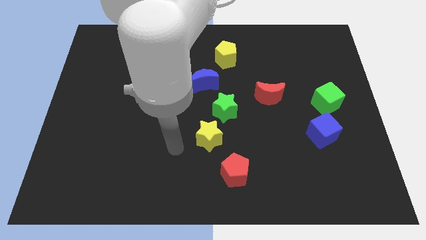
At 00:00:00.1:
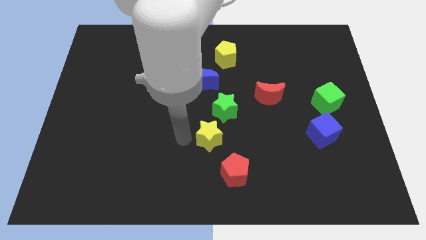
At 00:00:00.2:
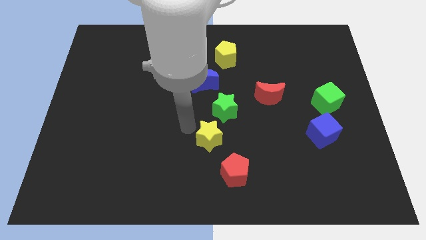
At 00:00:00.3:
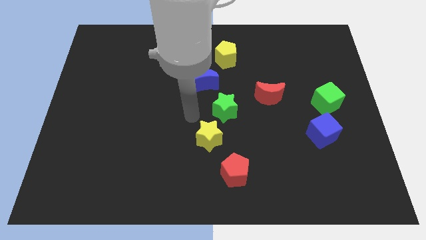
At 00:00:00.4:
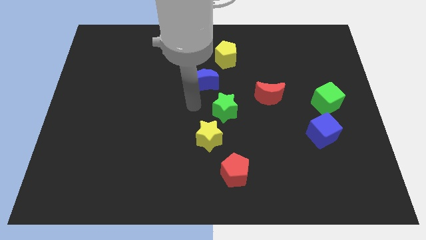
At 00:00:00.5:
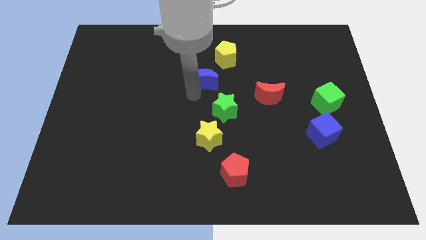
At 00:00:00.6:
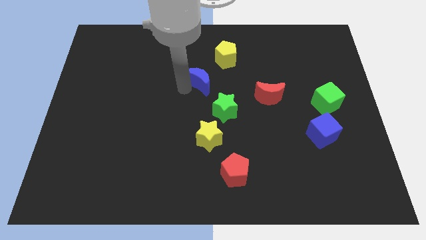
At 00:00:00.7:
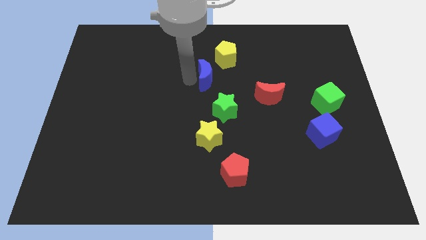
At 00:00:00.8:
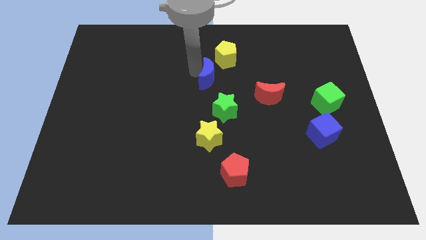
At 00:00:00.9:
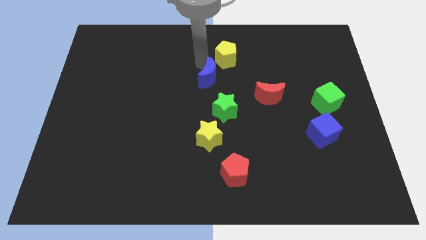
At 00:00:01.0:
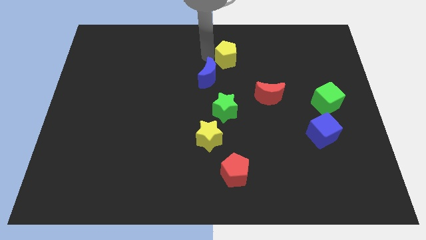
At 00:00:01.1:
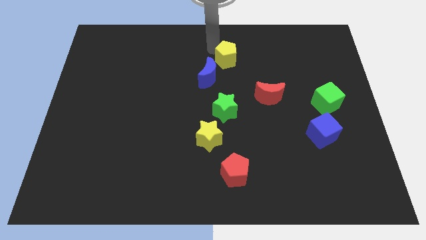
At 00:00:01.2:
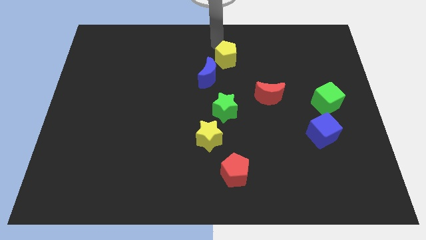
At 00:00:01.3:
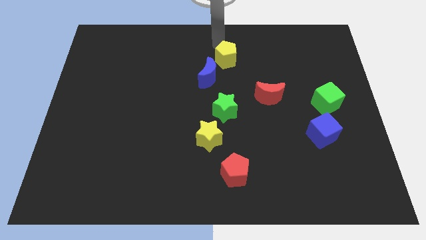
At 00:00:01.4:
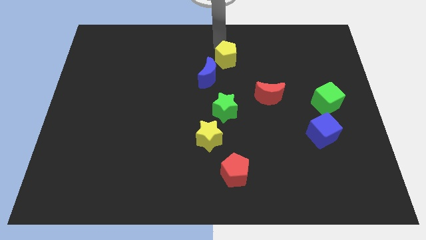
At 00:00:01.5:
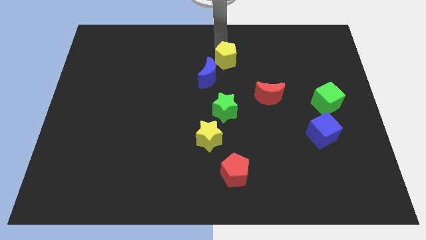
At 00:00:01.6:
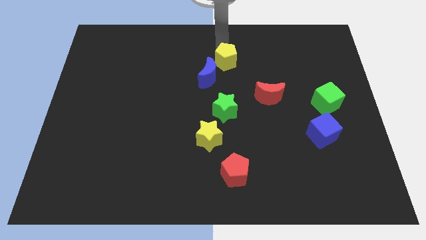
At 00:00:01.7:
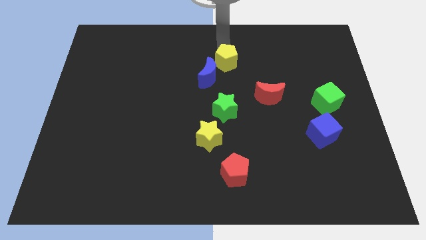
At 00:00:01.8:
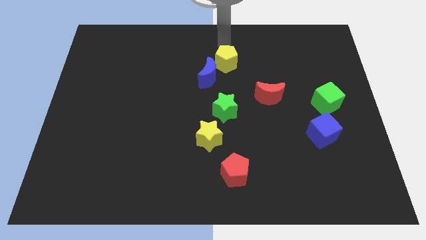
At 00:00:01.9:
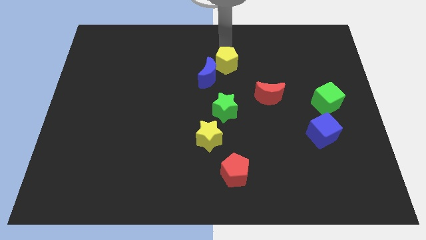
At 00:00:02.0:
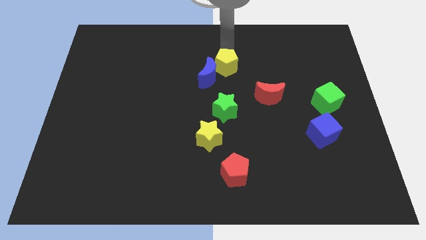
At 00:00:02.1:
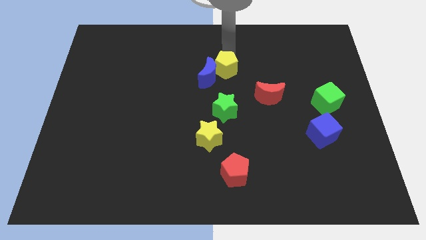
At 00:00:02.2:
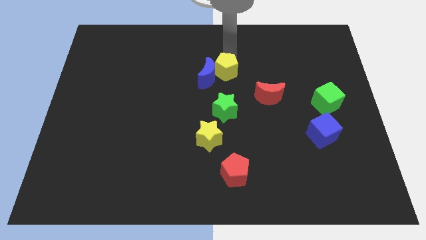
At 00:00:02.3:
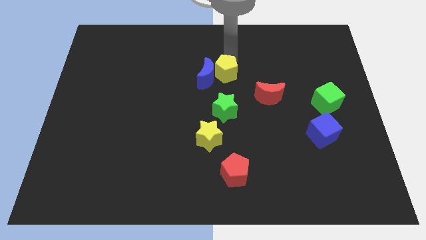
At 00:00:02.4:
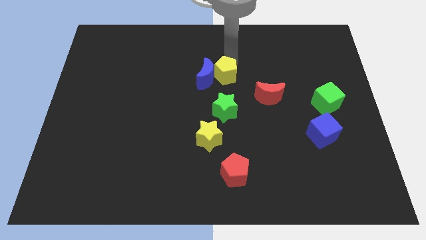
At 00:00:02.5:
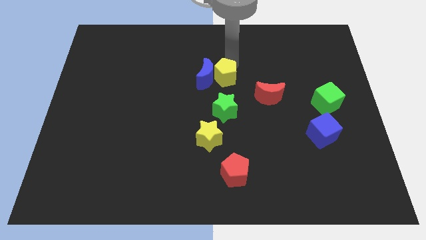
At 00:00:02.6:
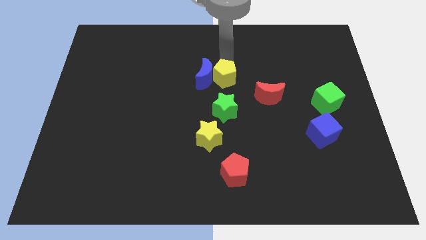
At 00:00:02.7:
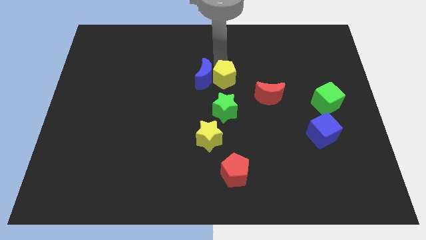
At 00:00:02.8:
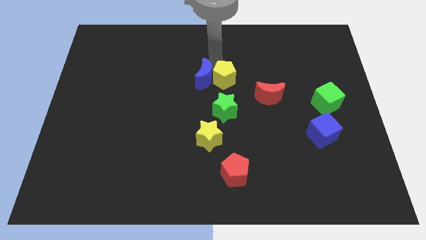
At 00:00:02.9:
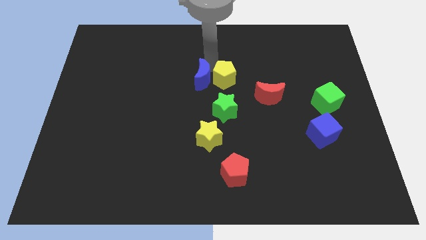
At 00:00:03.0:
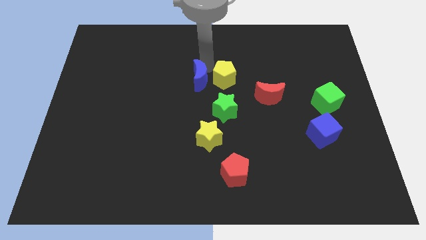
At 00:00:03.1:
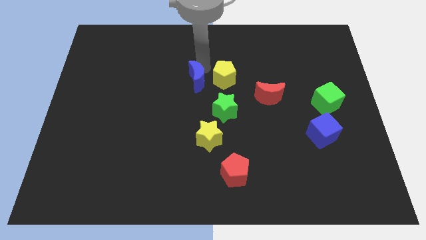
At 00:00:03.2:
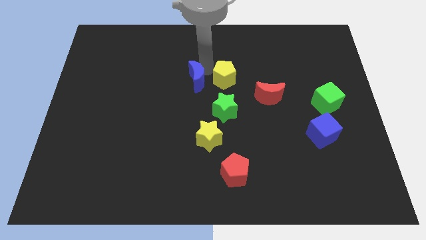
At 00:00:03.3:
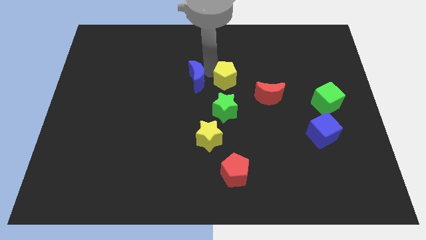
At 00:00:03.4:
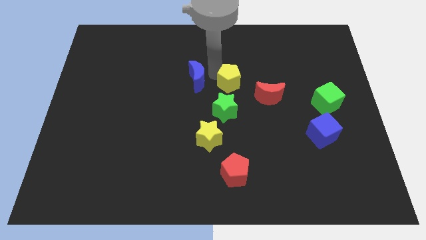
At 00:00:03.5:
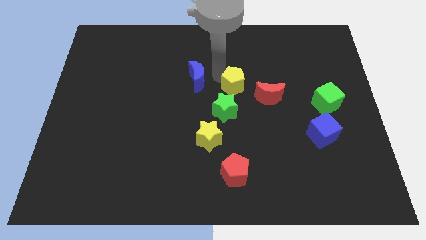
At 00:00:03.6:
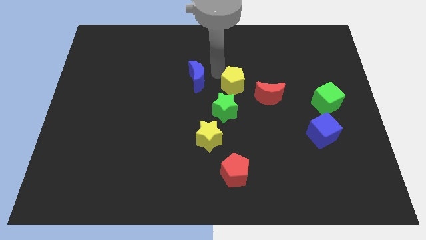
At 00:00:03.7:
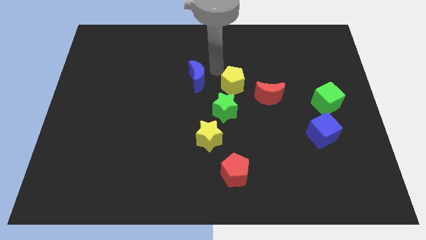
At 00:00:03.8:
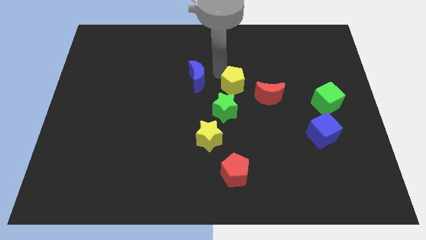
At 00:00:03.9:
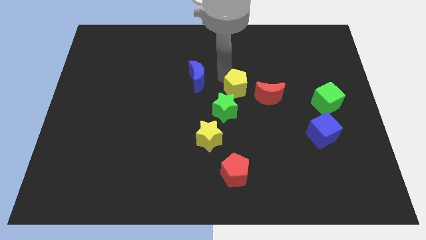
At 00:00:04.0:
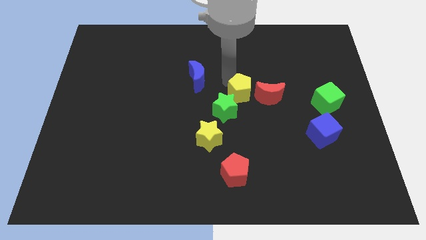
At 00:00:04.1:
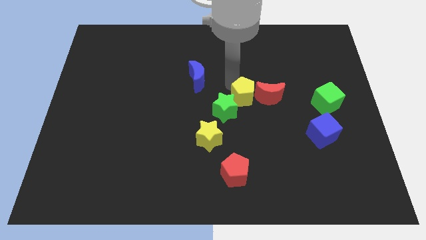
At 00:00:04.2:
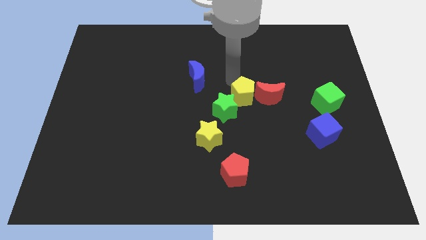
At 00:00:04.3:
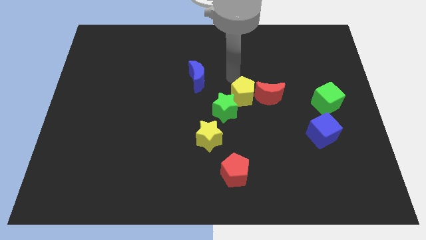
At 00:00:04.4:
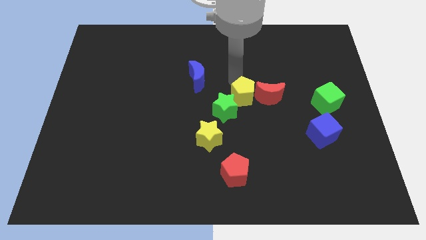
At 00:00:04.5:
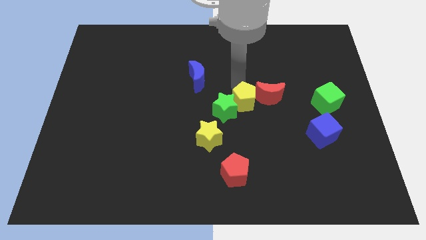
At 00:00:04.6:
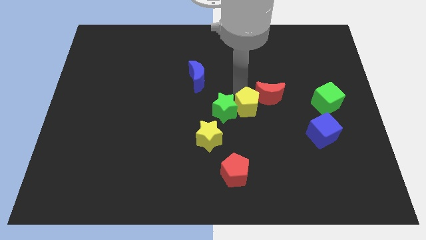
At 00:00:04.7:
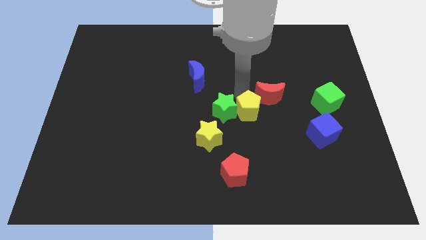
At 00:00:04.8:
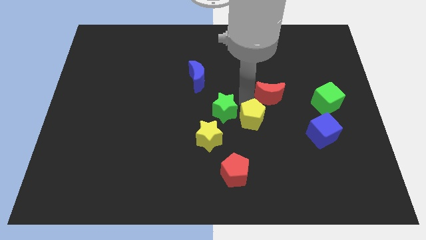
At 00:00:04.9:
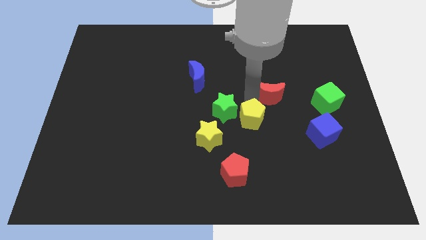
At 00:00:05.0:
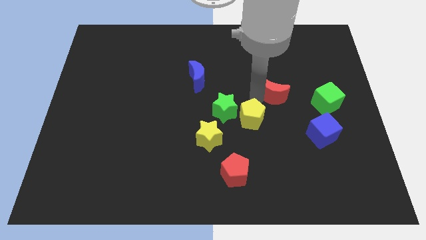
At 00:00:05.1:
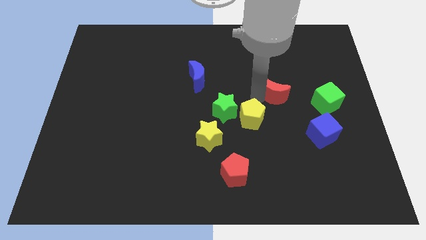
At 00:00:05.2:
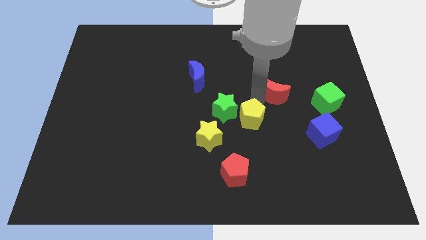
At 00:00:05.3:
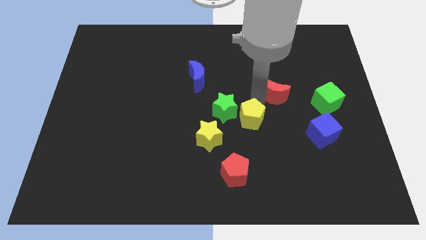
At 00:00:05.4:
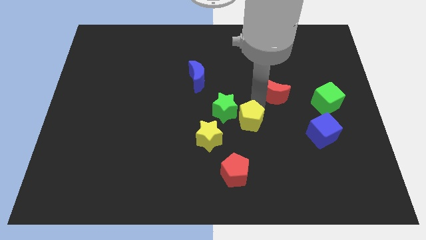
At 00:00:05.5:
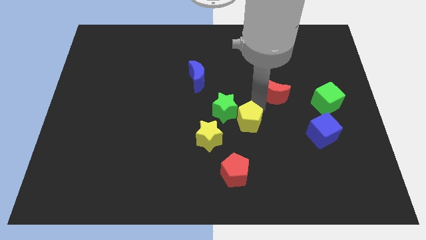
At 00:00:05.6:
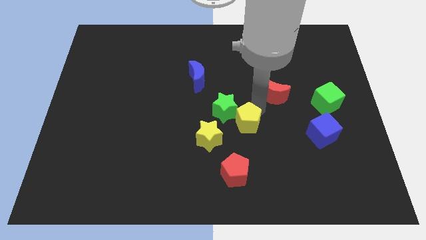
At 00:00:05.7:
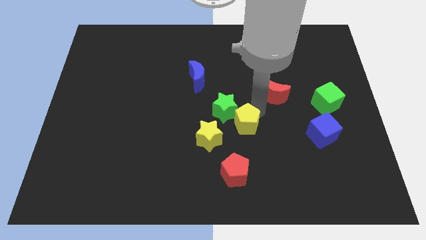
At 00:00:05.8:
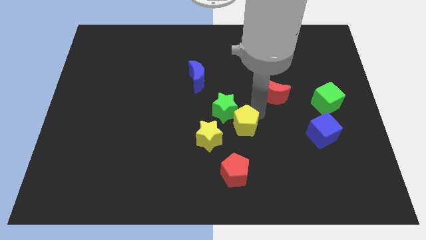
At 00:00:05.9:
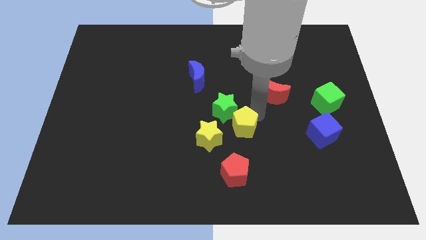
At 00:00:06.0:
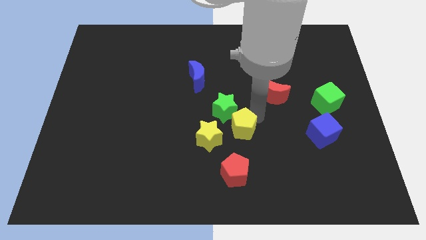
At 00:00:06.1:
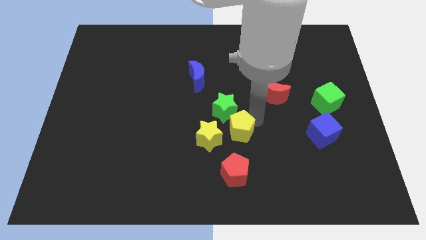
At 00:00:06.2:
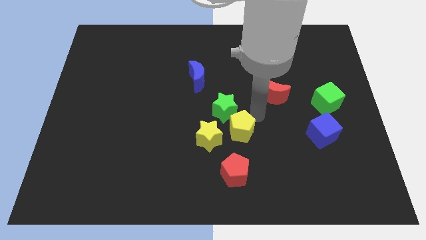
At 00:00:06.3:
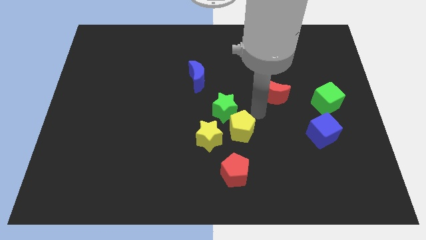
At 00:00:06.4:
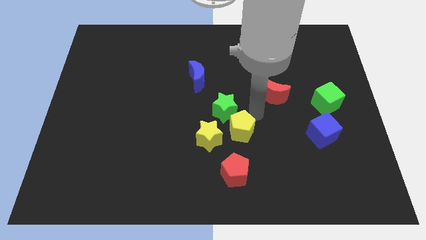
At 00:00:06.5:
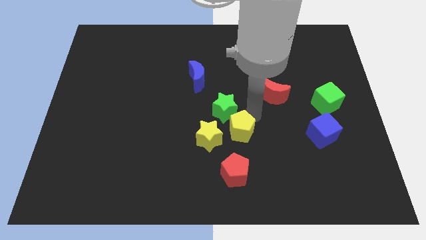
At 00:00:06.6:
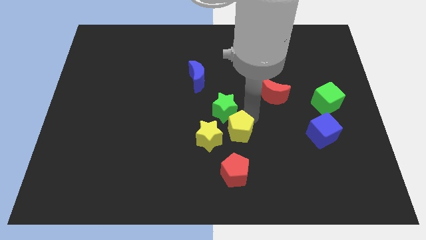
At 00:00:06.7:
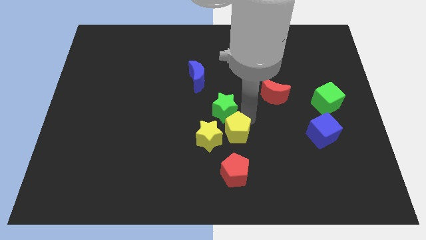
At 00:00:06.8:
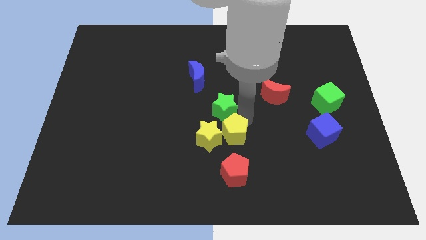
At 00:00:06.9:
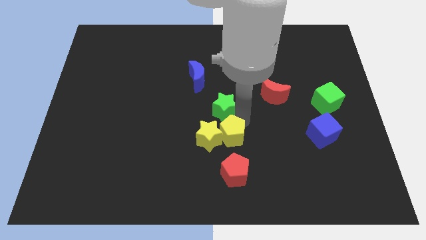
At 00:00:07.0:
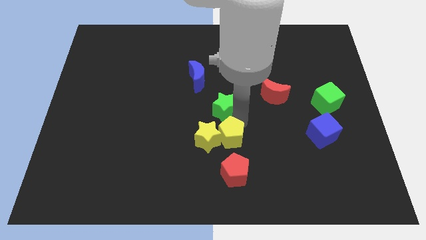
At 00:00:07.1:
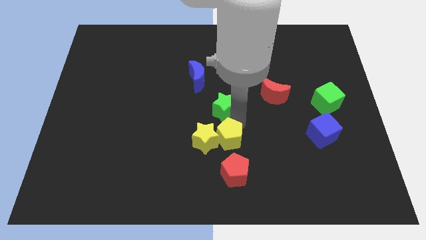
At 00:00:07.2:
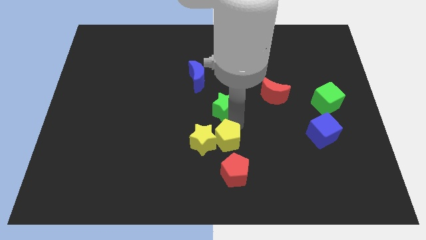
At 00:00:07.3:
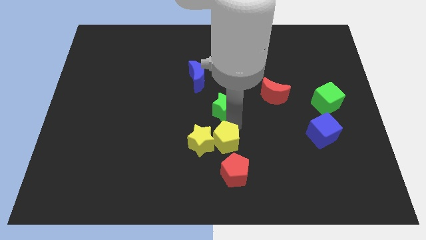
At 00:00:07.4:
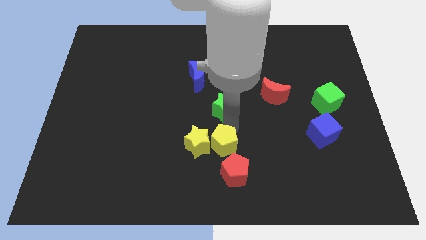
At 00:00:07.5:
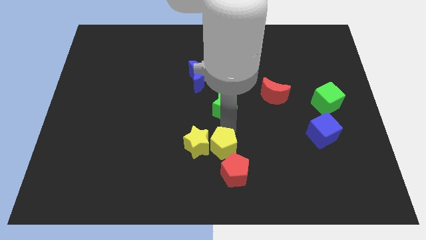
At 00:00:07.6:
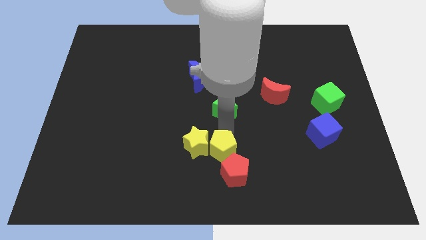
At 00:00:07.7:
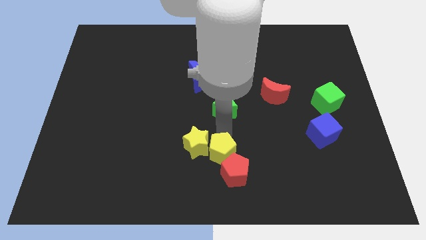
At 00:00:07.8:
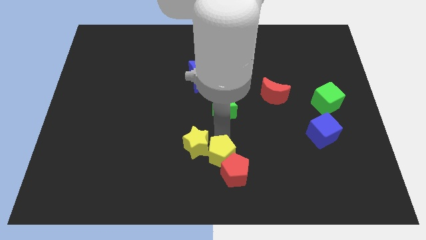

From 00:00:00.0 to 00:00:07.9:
slide the yellow pentagon to the bottom

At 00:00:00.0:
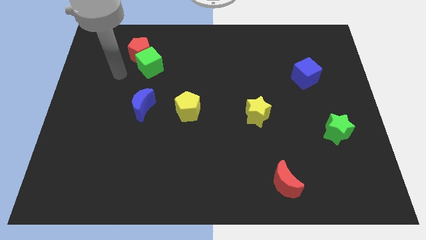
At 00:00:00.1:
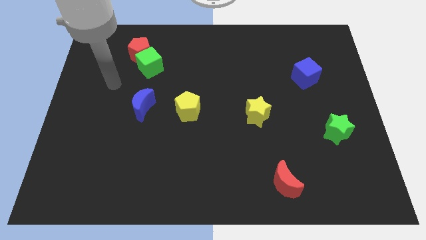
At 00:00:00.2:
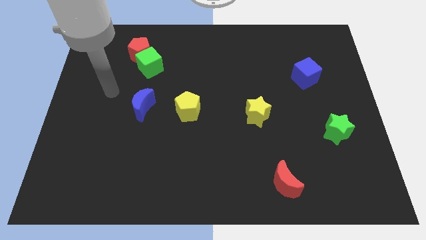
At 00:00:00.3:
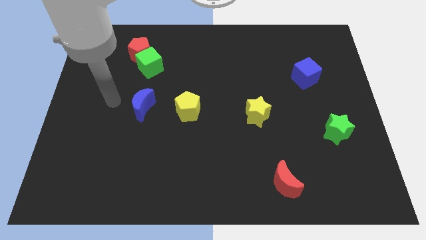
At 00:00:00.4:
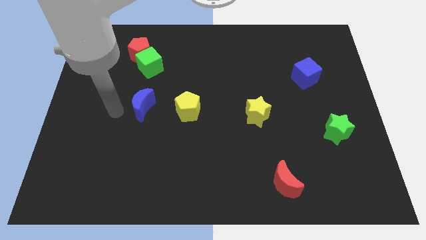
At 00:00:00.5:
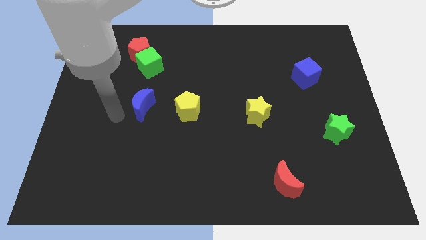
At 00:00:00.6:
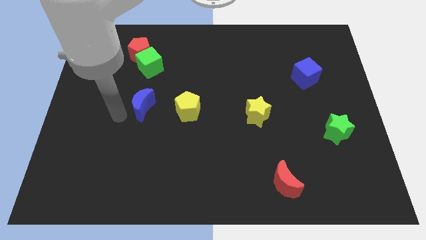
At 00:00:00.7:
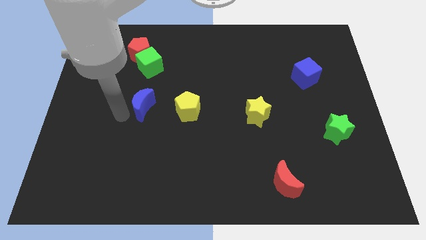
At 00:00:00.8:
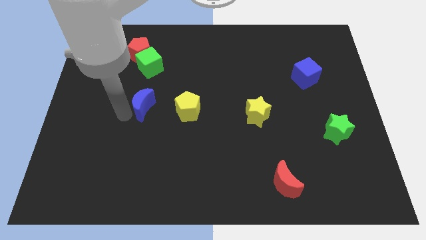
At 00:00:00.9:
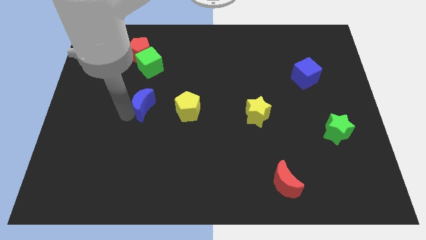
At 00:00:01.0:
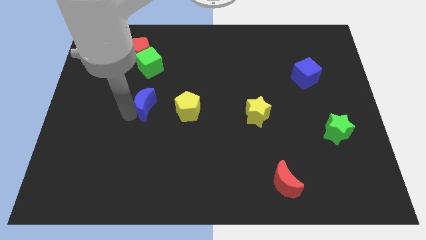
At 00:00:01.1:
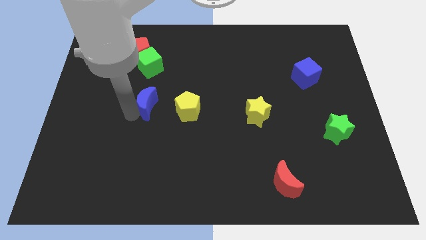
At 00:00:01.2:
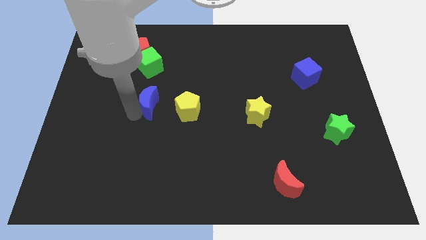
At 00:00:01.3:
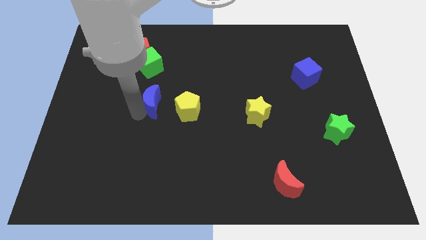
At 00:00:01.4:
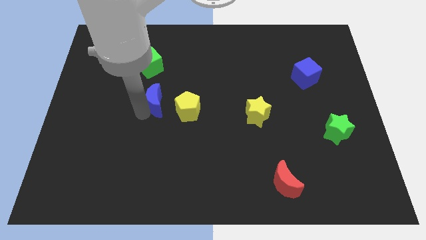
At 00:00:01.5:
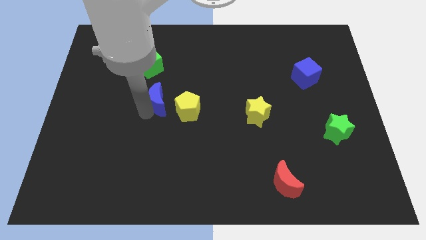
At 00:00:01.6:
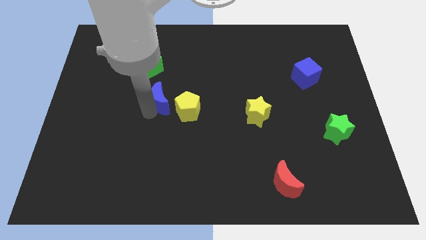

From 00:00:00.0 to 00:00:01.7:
move the blue moon to the middle
